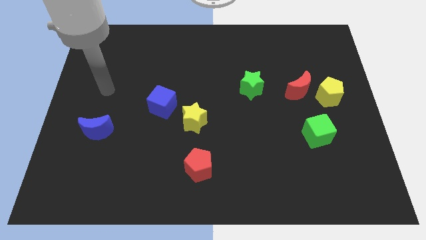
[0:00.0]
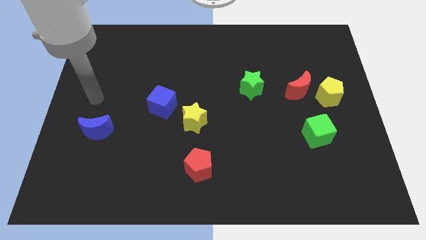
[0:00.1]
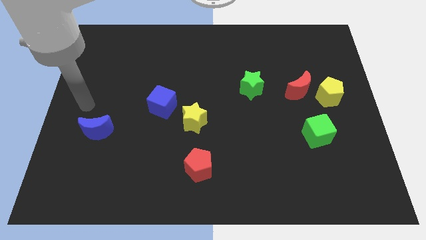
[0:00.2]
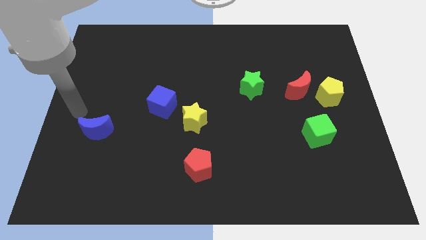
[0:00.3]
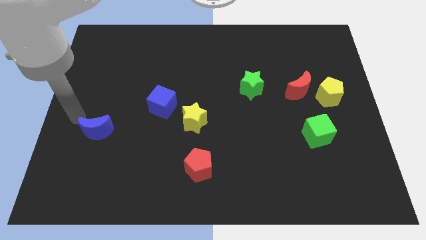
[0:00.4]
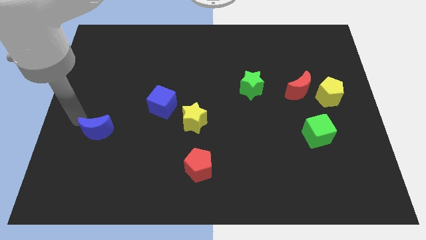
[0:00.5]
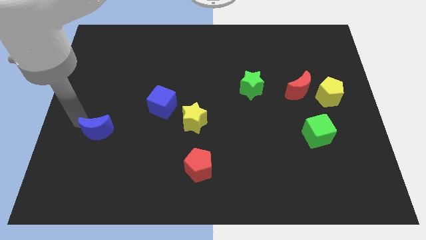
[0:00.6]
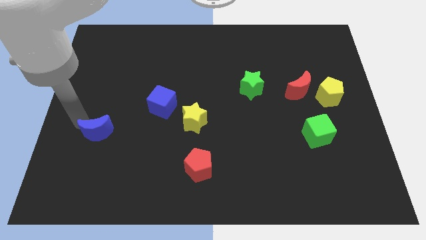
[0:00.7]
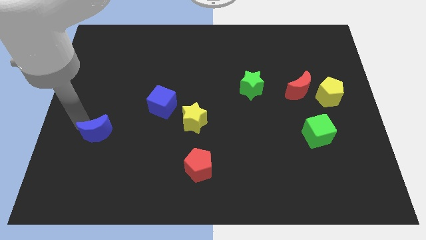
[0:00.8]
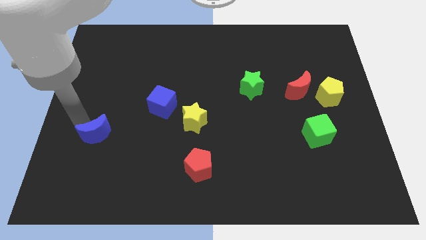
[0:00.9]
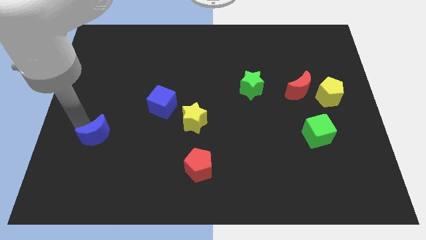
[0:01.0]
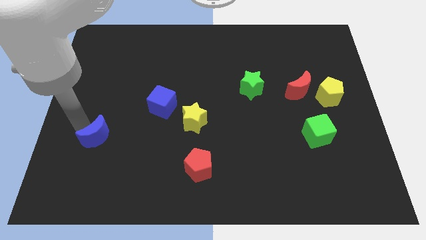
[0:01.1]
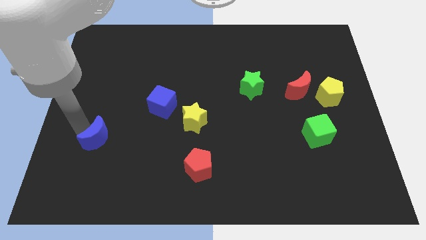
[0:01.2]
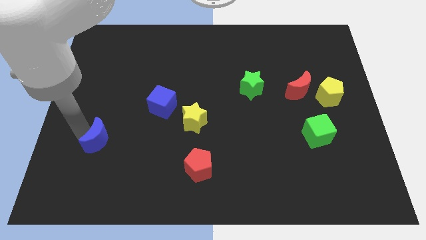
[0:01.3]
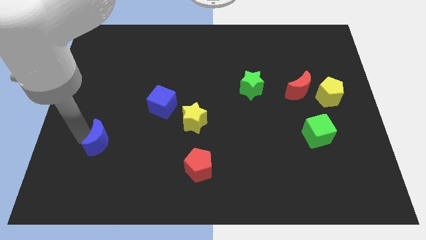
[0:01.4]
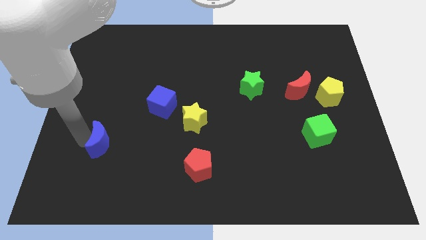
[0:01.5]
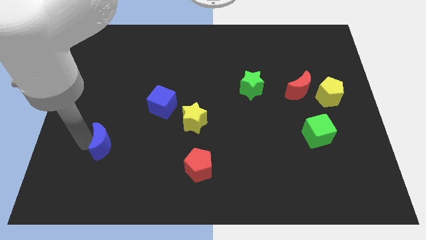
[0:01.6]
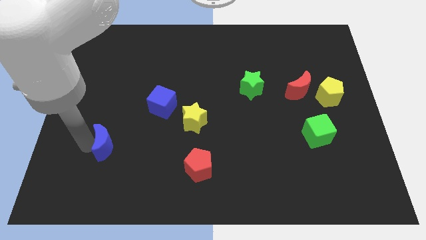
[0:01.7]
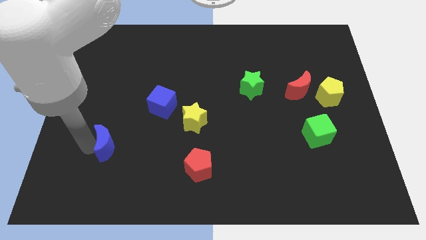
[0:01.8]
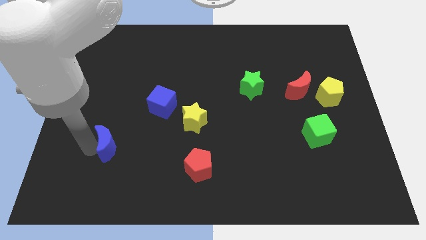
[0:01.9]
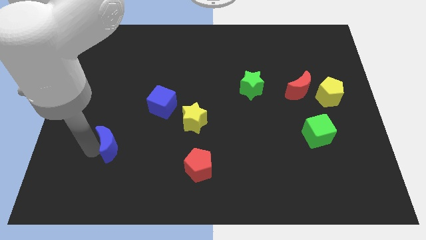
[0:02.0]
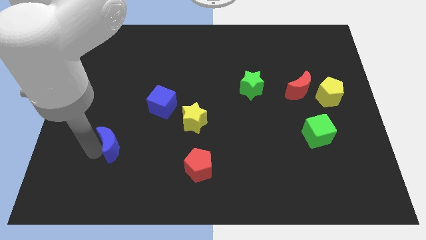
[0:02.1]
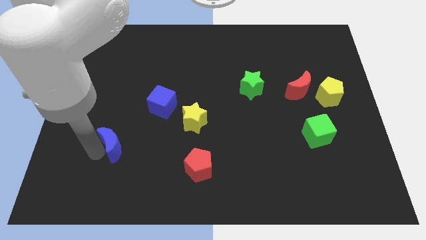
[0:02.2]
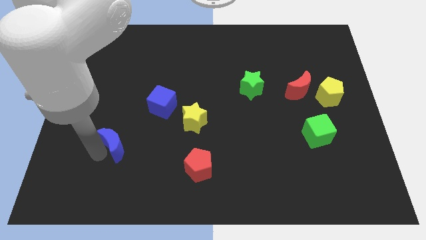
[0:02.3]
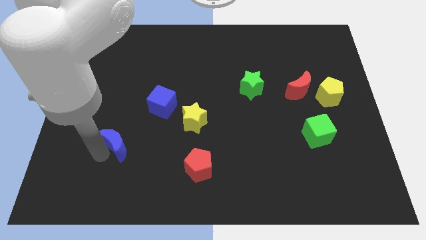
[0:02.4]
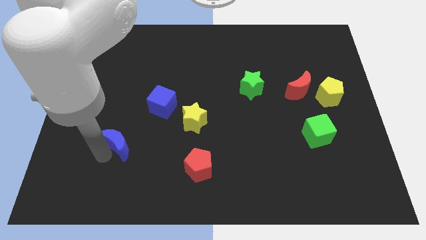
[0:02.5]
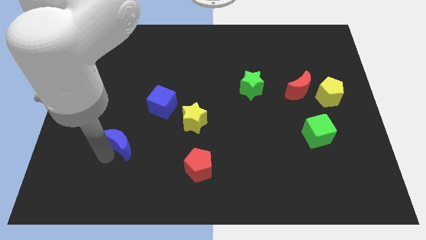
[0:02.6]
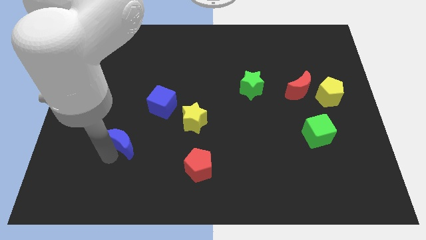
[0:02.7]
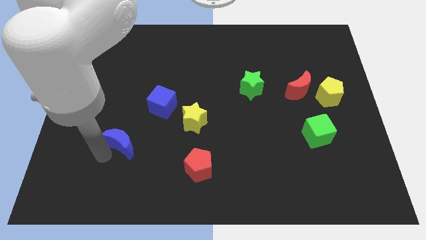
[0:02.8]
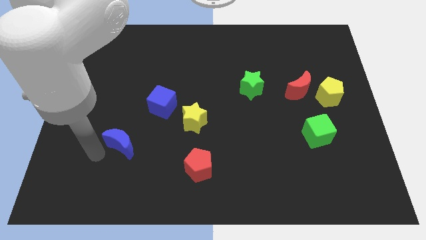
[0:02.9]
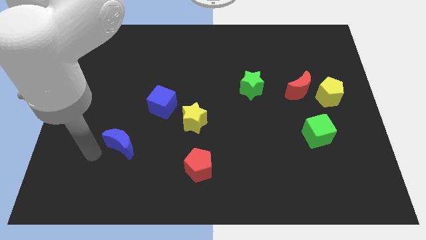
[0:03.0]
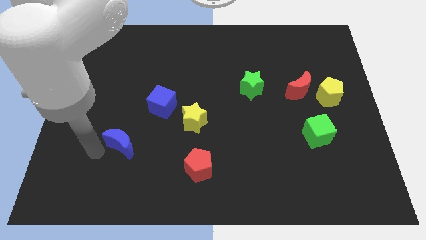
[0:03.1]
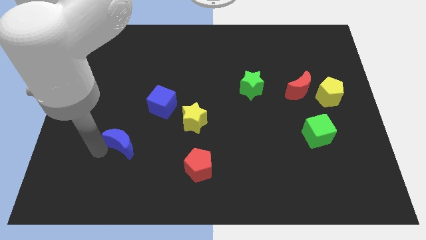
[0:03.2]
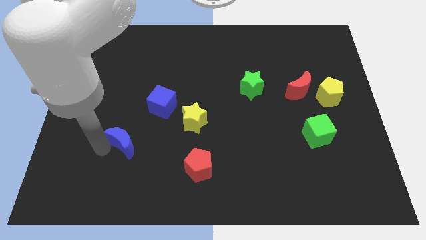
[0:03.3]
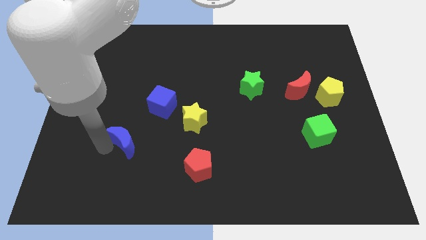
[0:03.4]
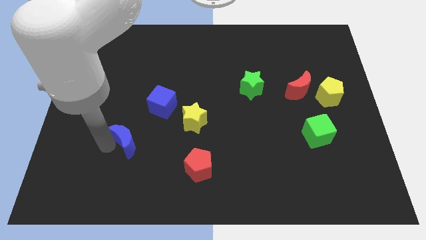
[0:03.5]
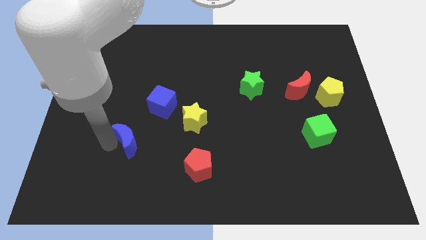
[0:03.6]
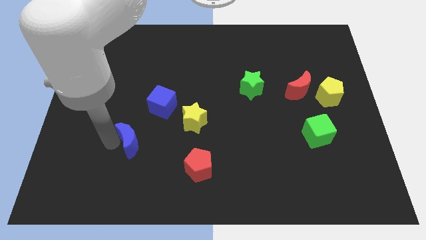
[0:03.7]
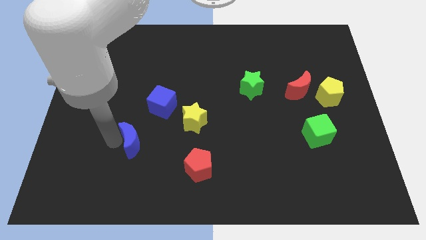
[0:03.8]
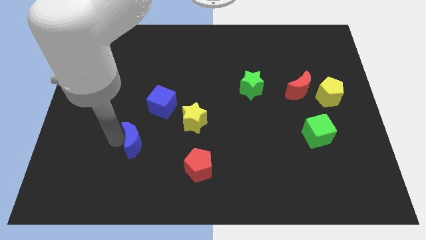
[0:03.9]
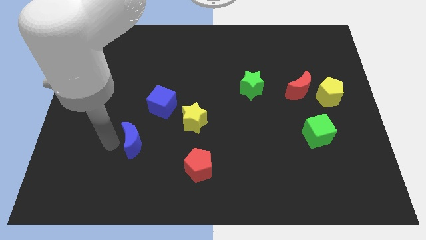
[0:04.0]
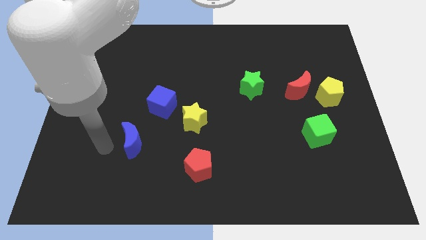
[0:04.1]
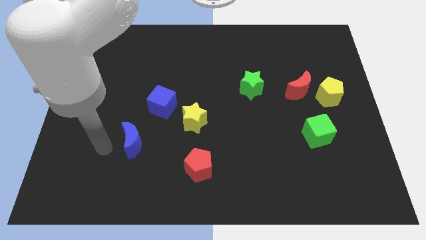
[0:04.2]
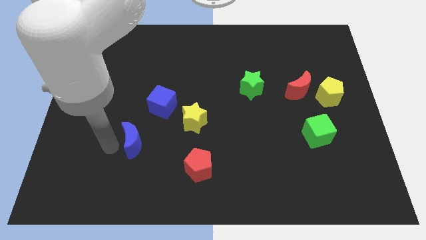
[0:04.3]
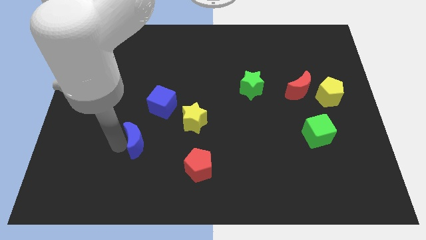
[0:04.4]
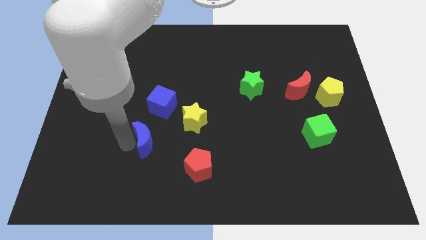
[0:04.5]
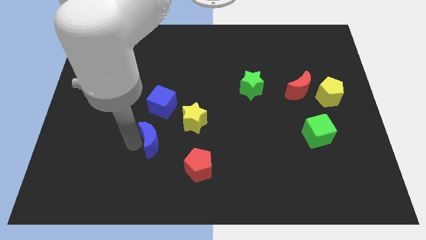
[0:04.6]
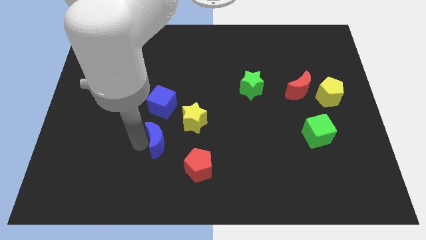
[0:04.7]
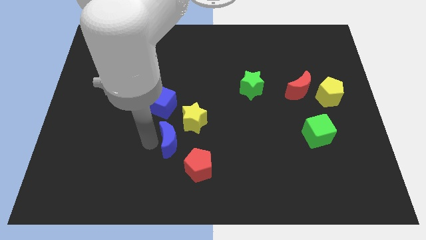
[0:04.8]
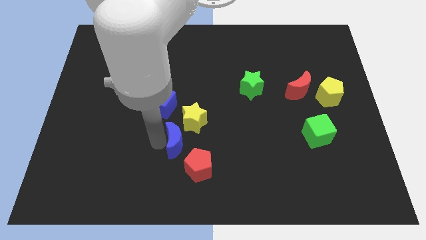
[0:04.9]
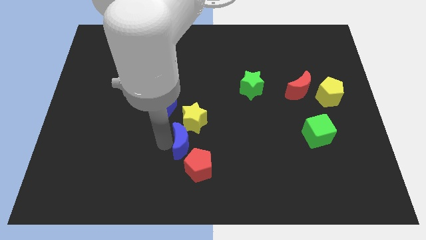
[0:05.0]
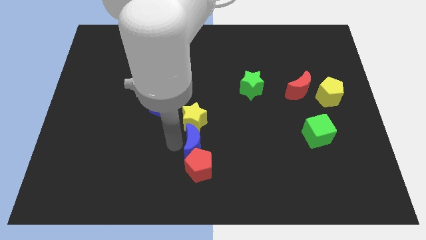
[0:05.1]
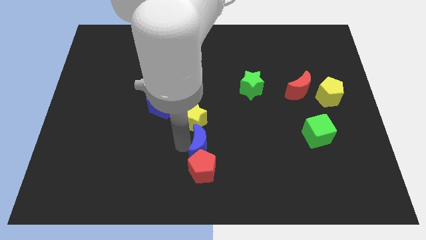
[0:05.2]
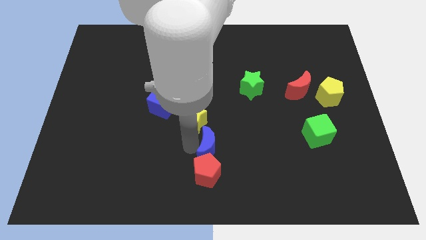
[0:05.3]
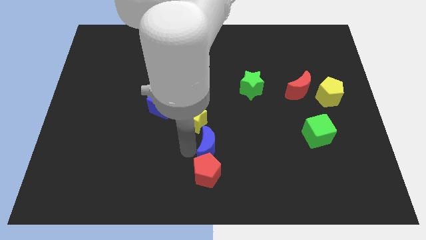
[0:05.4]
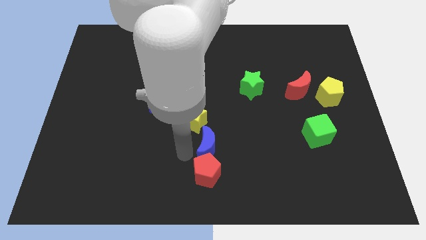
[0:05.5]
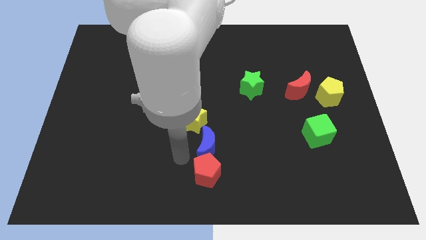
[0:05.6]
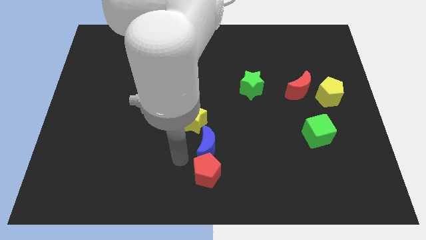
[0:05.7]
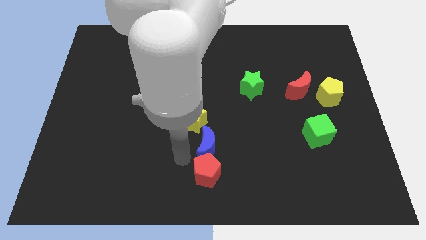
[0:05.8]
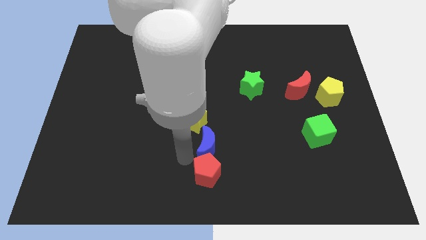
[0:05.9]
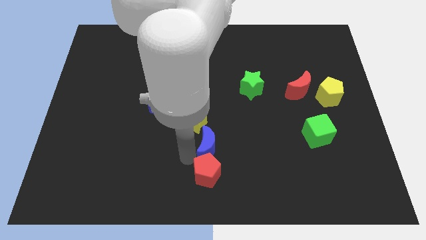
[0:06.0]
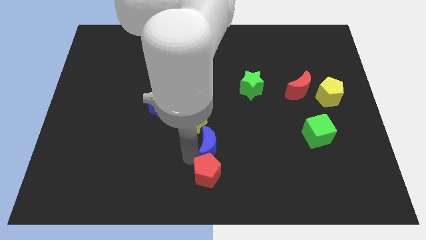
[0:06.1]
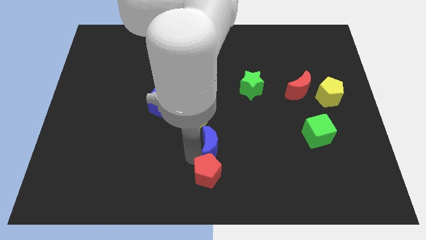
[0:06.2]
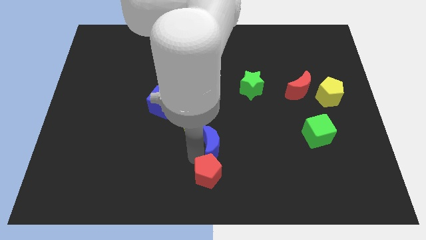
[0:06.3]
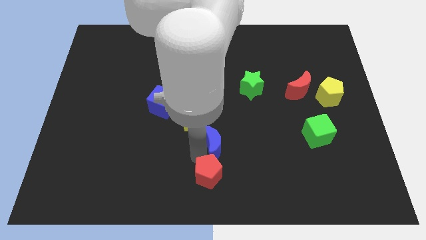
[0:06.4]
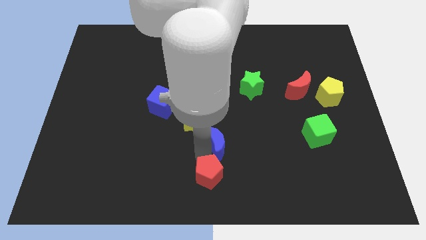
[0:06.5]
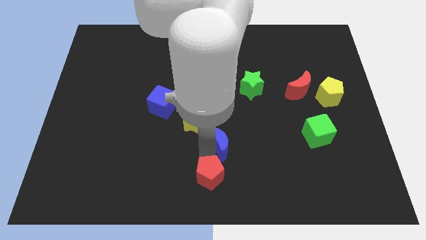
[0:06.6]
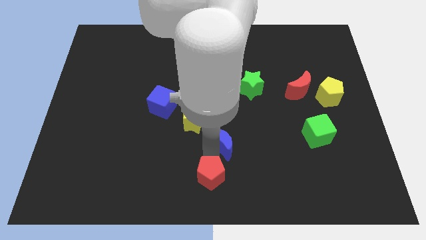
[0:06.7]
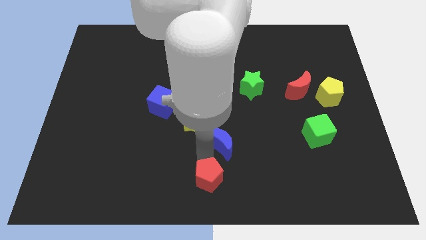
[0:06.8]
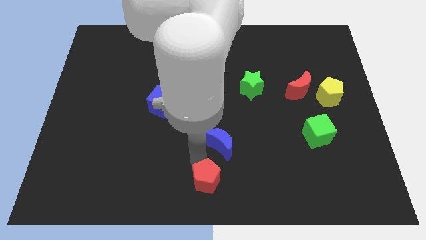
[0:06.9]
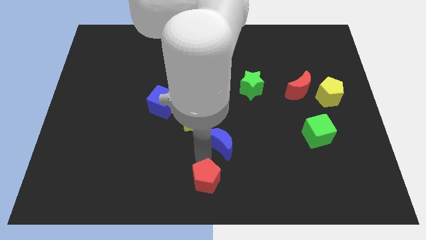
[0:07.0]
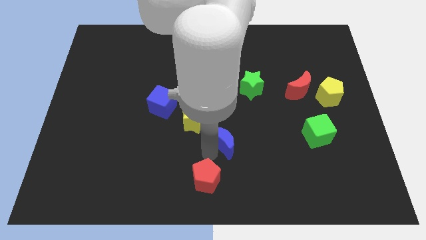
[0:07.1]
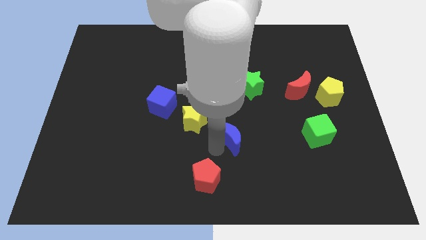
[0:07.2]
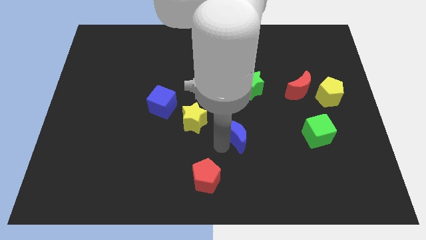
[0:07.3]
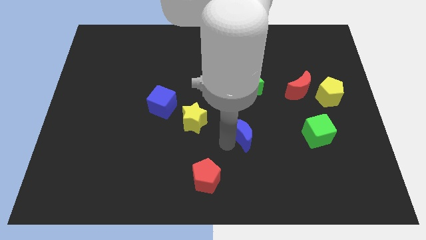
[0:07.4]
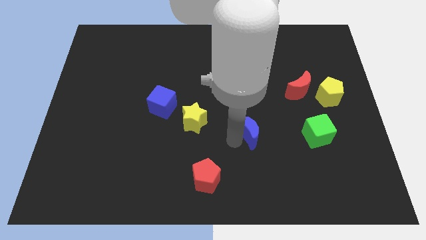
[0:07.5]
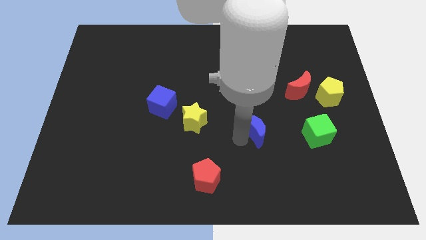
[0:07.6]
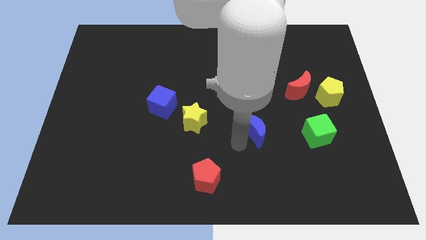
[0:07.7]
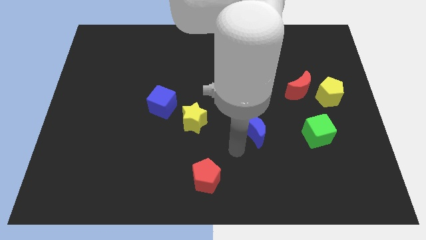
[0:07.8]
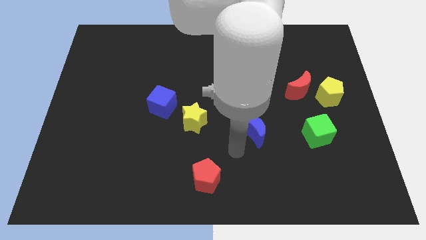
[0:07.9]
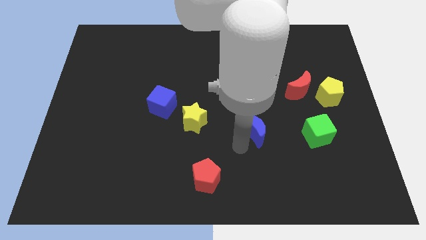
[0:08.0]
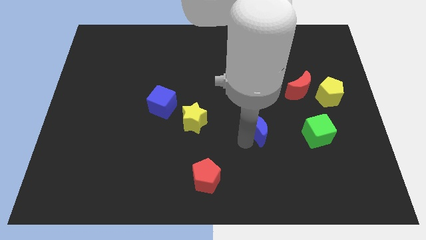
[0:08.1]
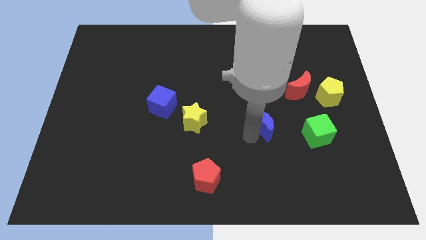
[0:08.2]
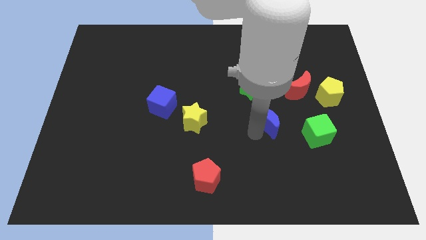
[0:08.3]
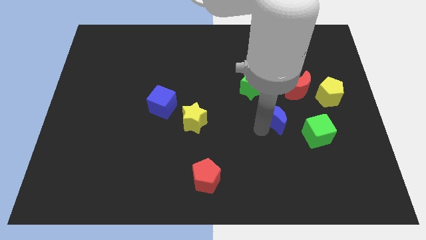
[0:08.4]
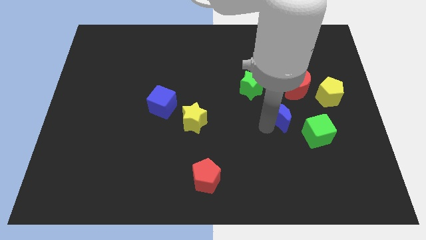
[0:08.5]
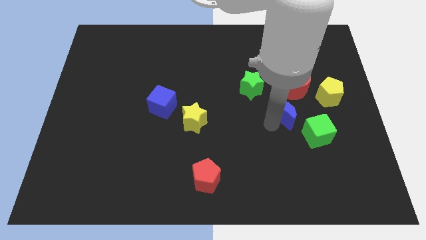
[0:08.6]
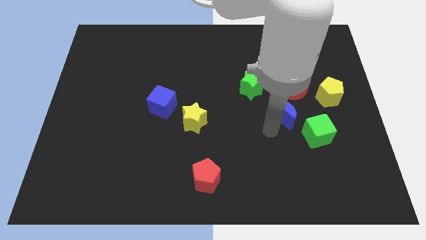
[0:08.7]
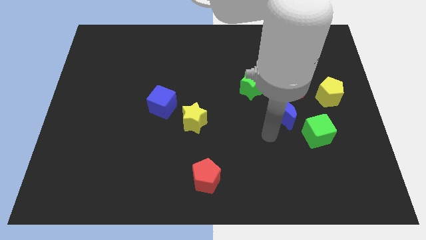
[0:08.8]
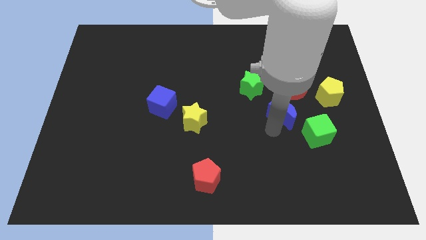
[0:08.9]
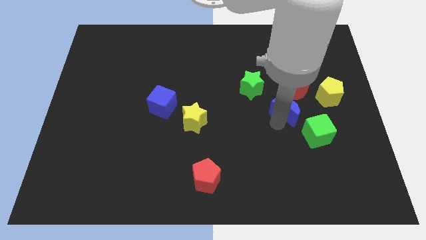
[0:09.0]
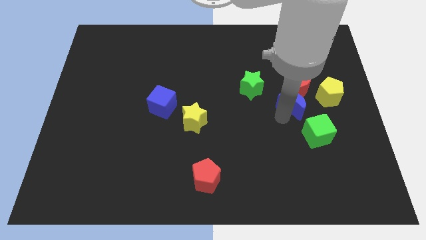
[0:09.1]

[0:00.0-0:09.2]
slide the blue moon next to the red moon
